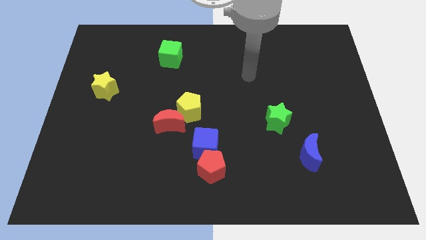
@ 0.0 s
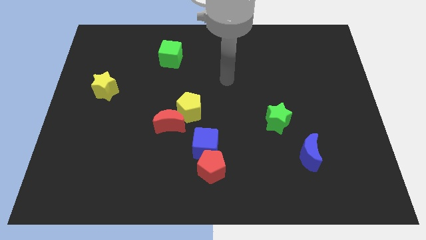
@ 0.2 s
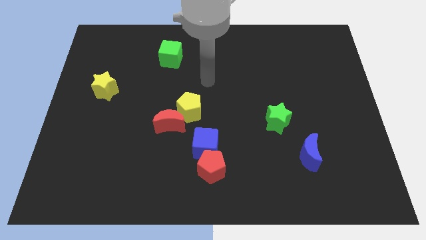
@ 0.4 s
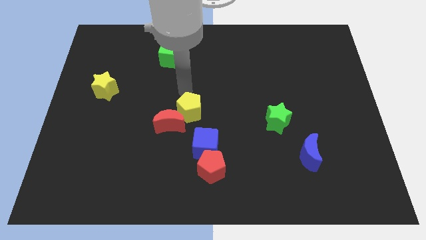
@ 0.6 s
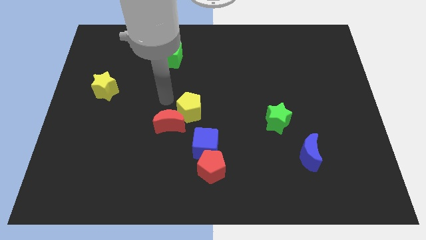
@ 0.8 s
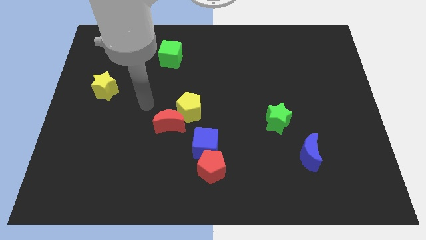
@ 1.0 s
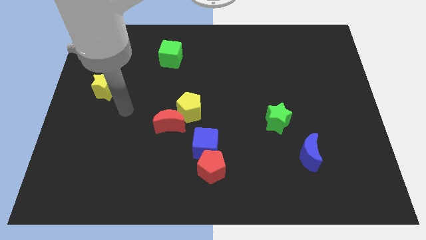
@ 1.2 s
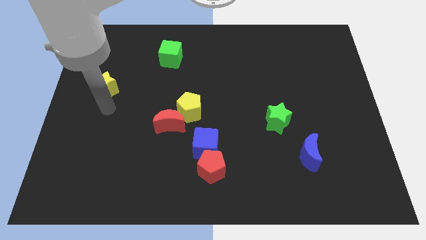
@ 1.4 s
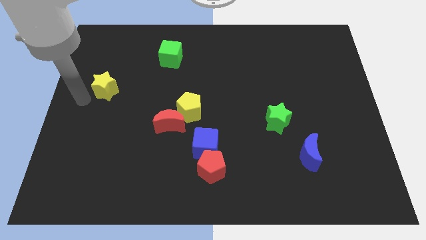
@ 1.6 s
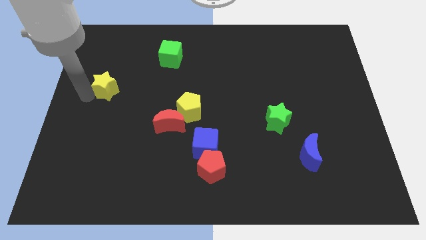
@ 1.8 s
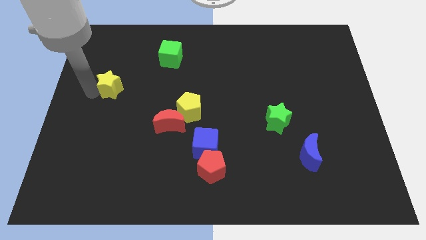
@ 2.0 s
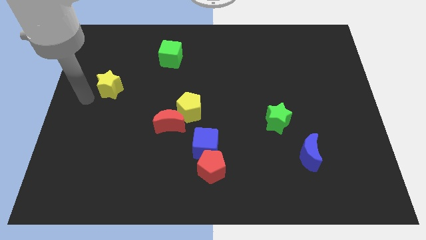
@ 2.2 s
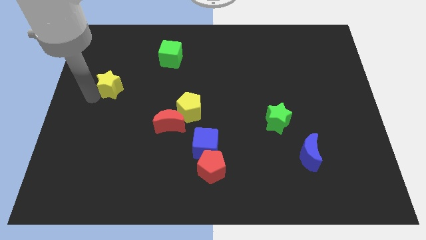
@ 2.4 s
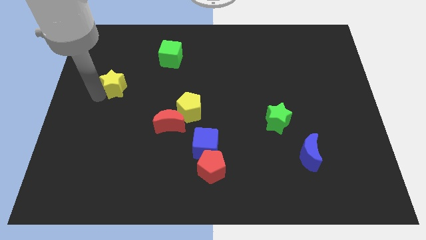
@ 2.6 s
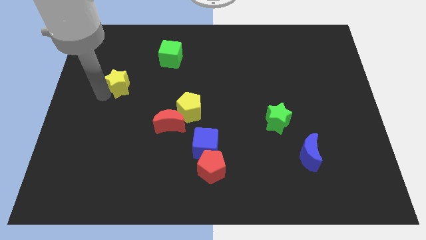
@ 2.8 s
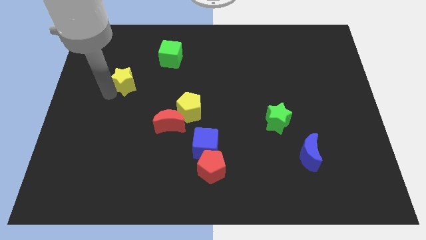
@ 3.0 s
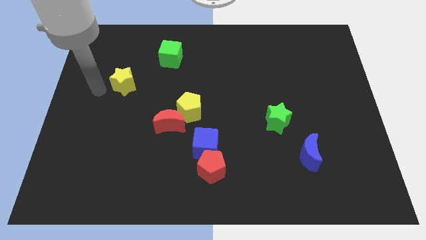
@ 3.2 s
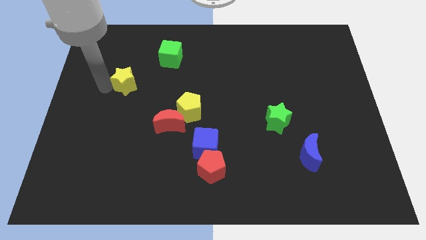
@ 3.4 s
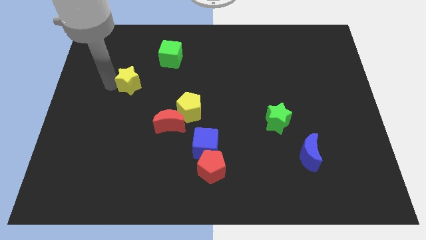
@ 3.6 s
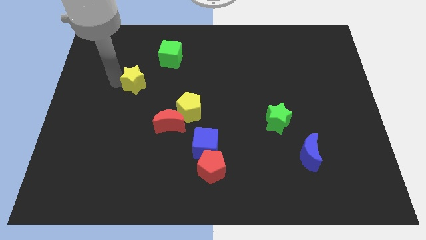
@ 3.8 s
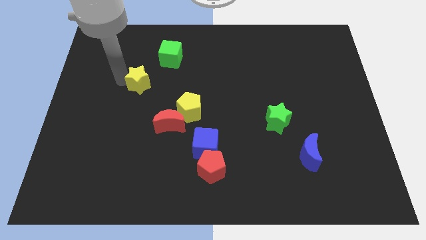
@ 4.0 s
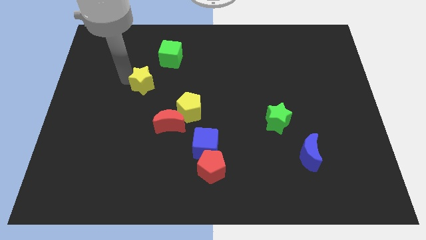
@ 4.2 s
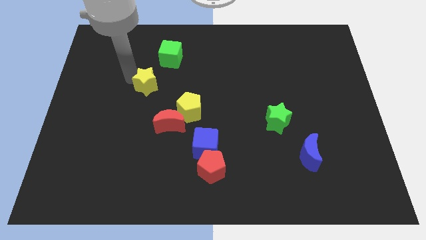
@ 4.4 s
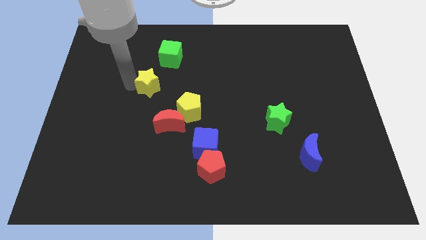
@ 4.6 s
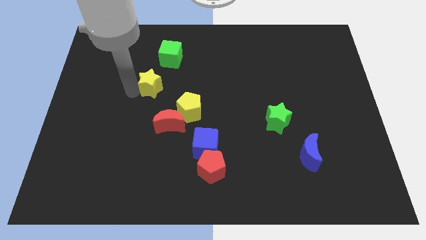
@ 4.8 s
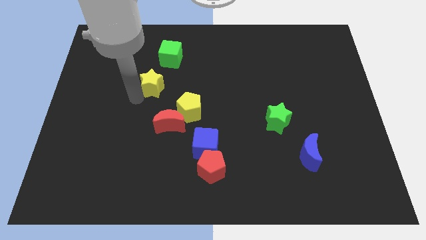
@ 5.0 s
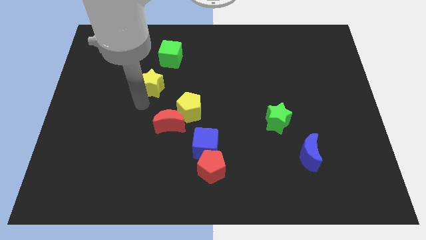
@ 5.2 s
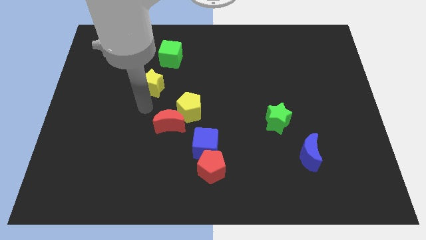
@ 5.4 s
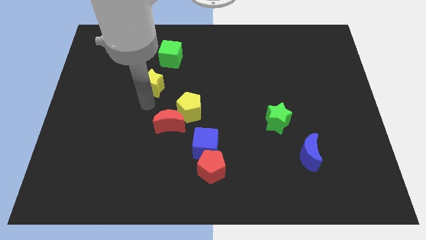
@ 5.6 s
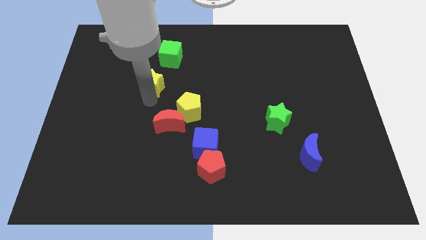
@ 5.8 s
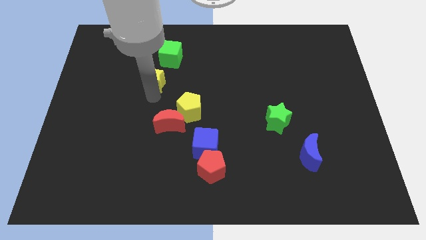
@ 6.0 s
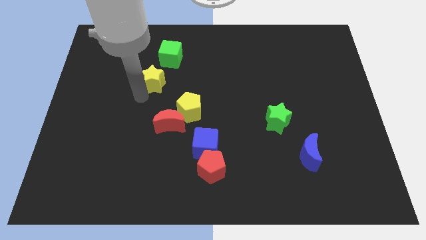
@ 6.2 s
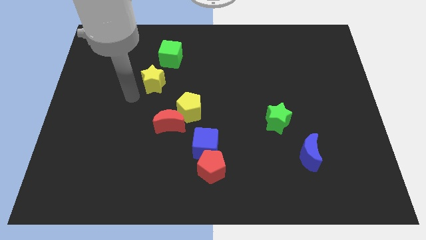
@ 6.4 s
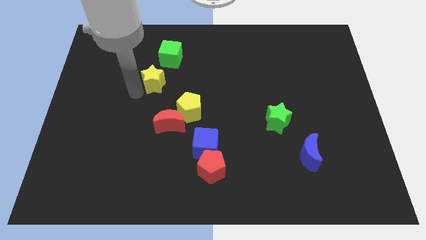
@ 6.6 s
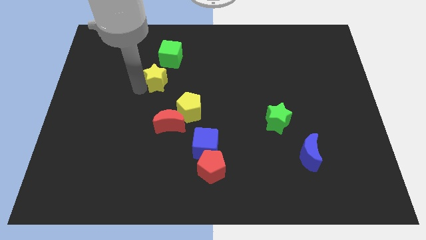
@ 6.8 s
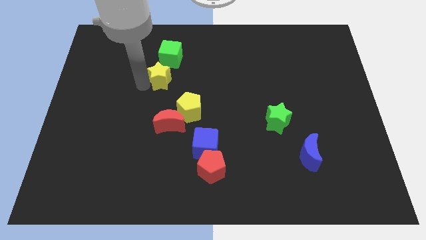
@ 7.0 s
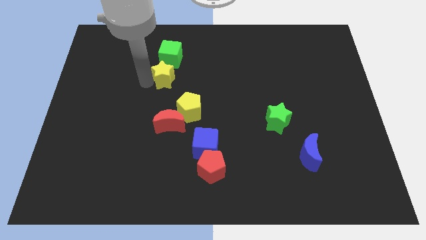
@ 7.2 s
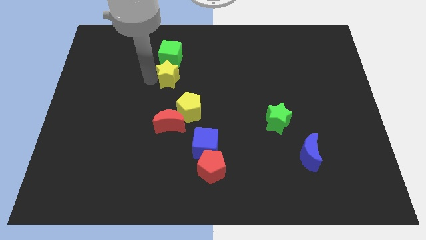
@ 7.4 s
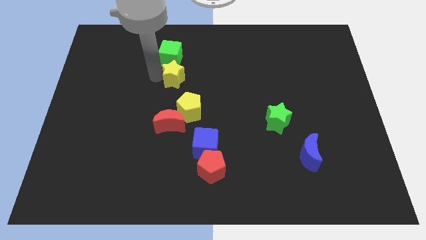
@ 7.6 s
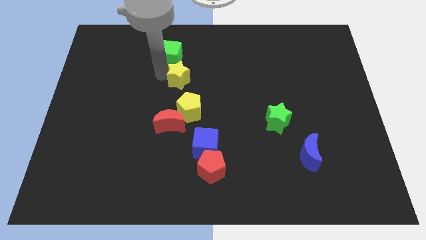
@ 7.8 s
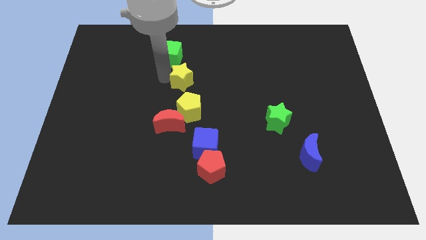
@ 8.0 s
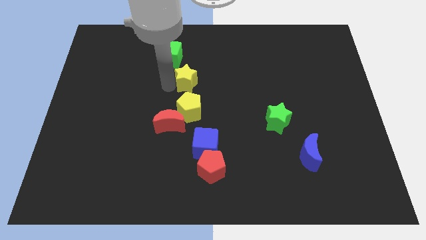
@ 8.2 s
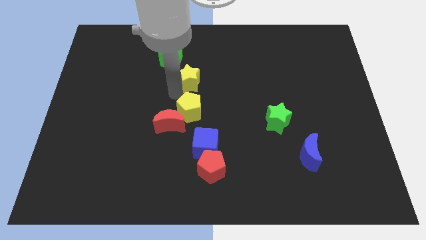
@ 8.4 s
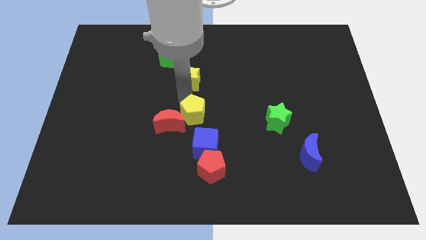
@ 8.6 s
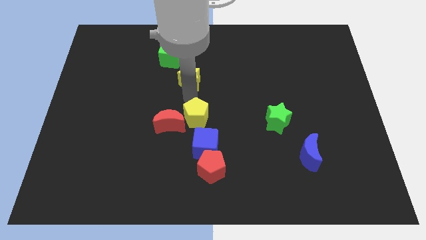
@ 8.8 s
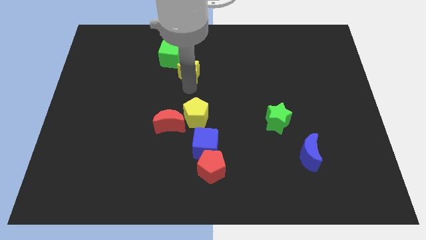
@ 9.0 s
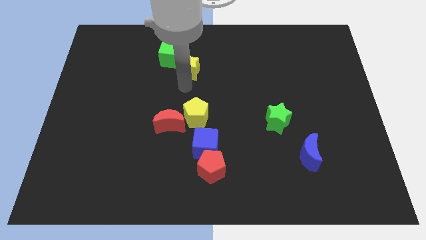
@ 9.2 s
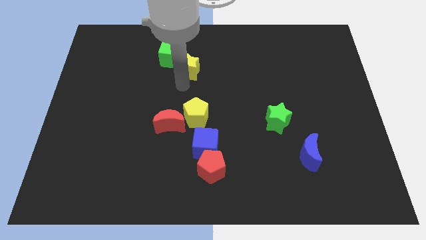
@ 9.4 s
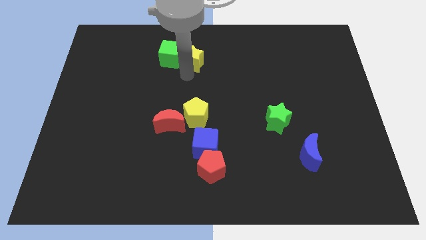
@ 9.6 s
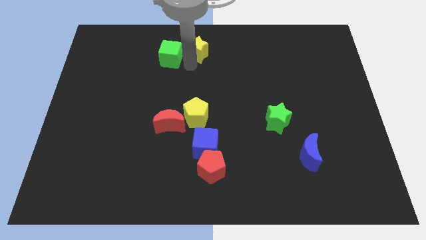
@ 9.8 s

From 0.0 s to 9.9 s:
slide the yellow star to the towards your base

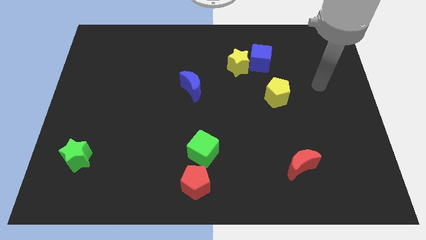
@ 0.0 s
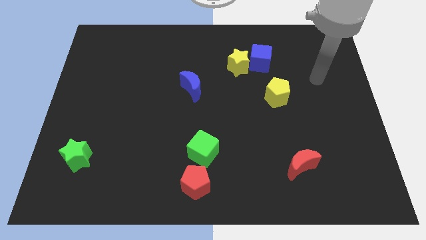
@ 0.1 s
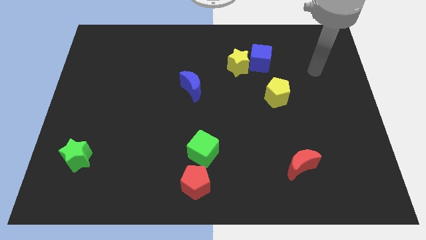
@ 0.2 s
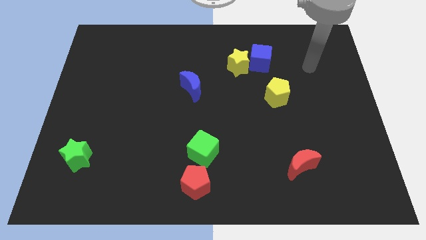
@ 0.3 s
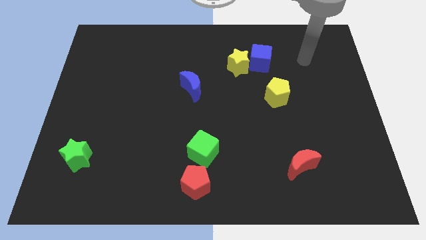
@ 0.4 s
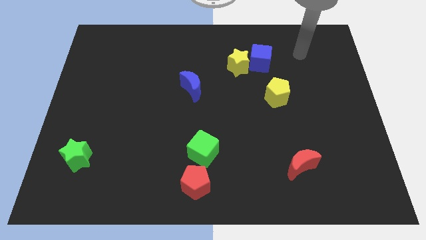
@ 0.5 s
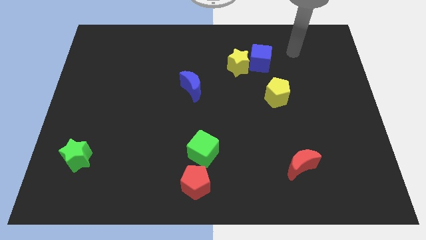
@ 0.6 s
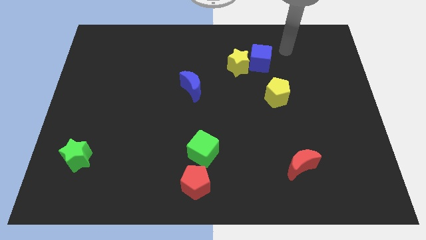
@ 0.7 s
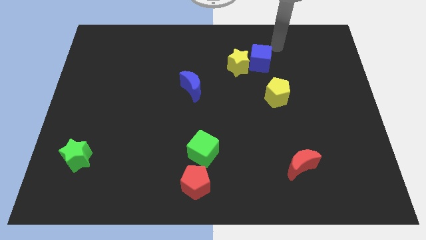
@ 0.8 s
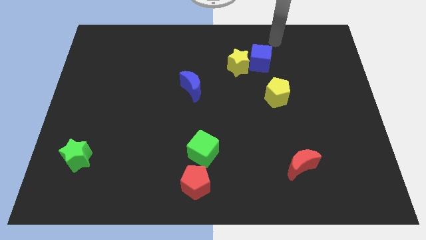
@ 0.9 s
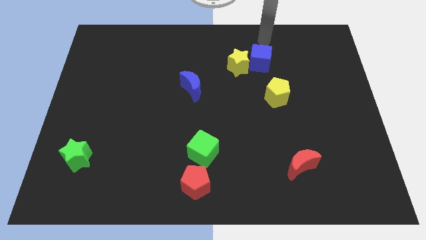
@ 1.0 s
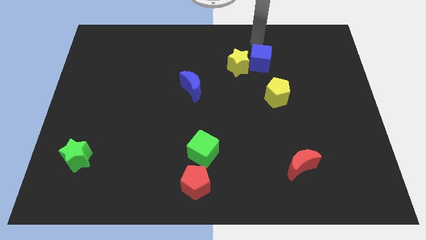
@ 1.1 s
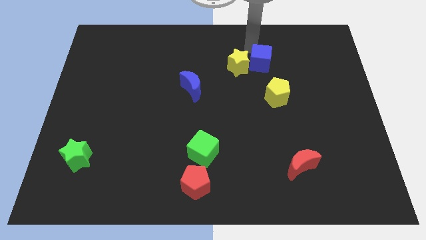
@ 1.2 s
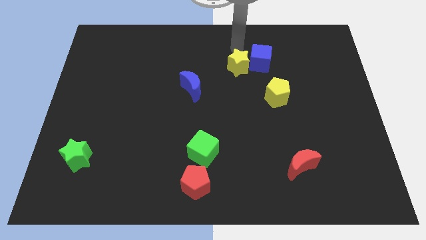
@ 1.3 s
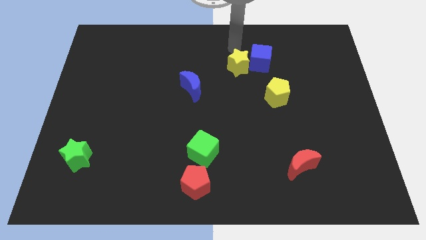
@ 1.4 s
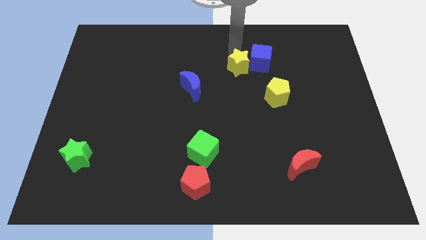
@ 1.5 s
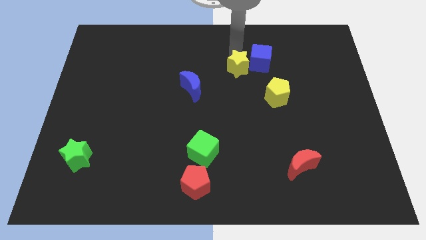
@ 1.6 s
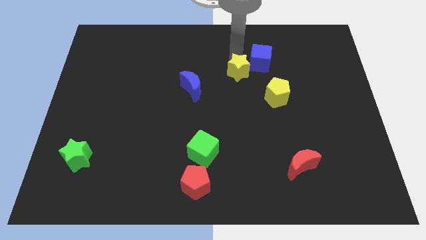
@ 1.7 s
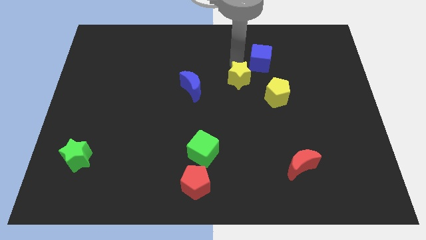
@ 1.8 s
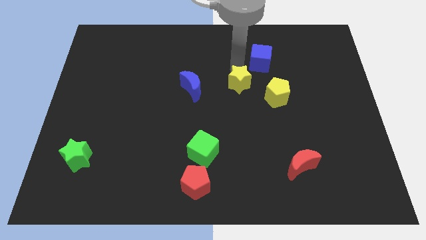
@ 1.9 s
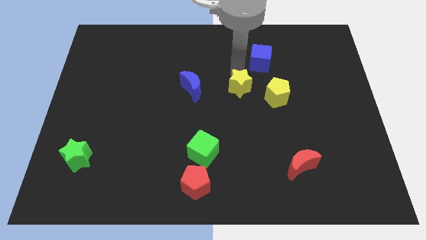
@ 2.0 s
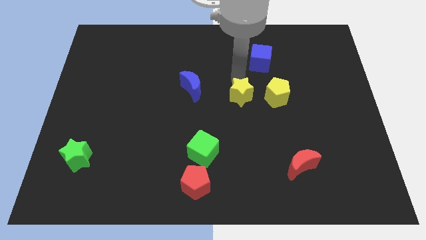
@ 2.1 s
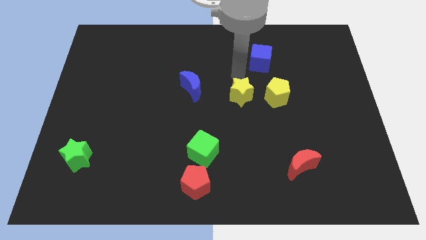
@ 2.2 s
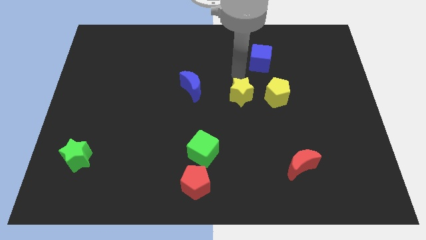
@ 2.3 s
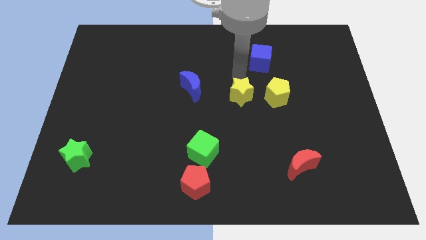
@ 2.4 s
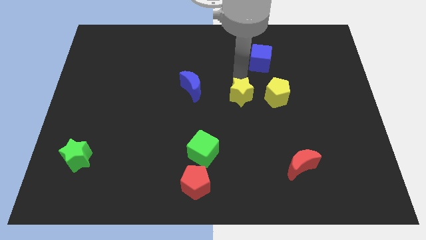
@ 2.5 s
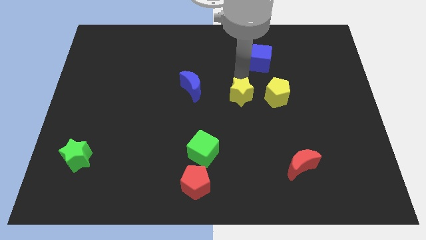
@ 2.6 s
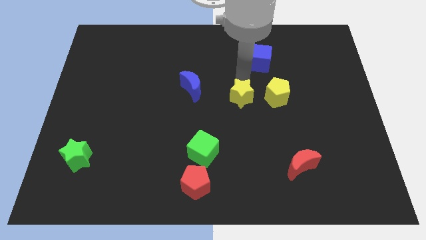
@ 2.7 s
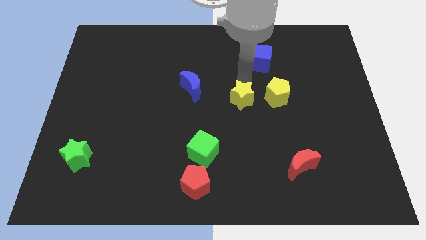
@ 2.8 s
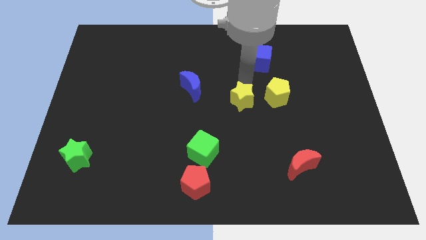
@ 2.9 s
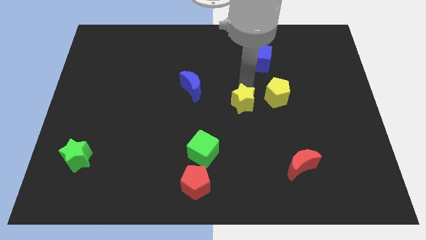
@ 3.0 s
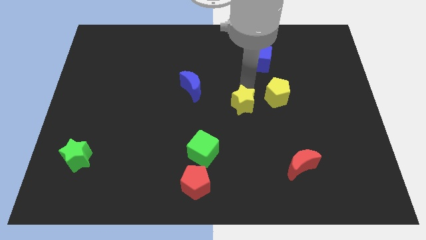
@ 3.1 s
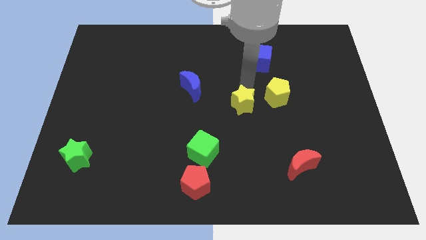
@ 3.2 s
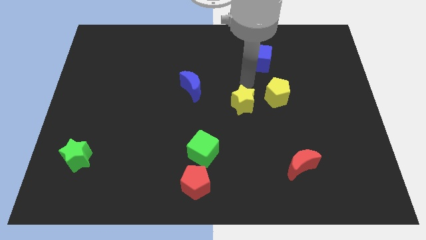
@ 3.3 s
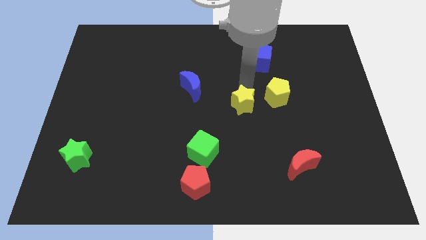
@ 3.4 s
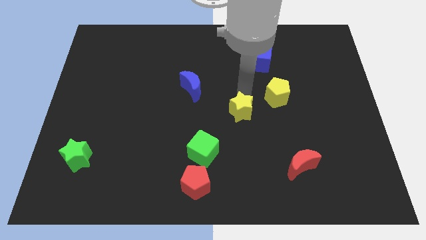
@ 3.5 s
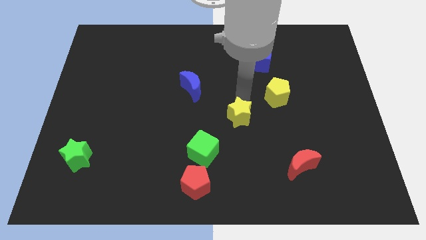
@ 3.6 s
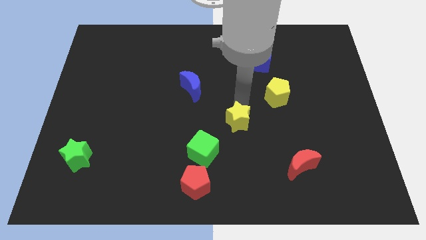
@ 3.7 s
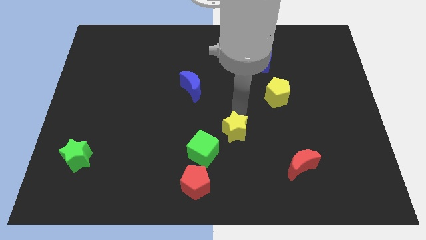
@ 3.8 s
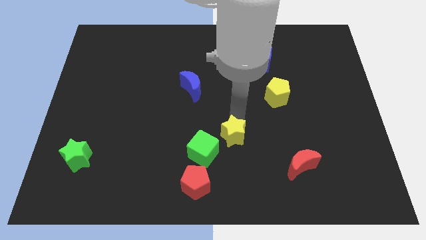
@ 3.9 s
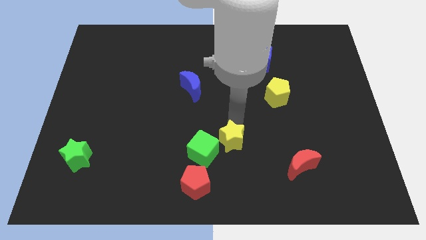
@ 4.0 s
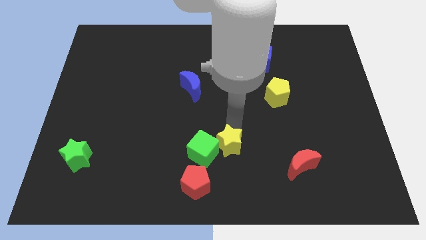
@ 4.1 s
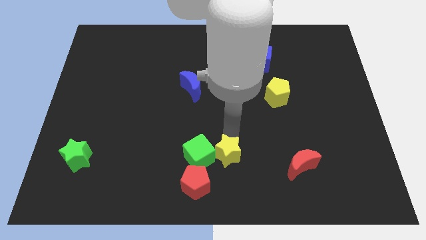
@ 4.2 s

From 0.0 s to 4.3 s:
push the yellow star to the bottom
